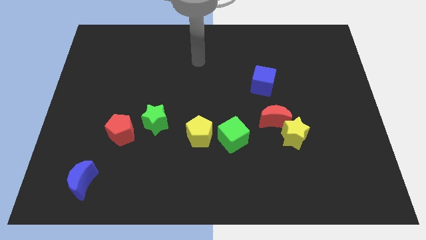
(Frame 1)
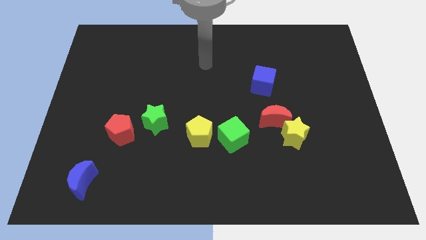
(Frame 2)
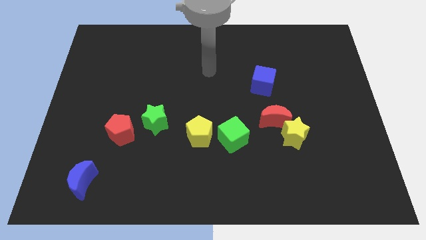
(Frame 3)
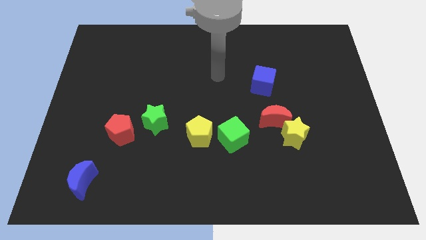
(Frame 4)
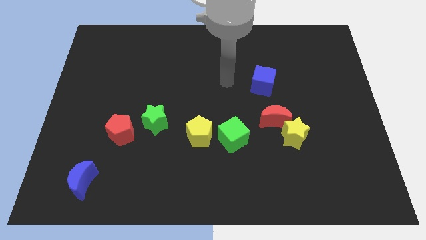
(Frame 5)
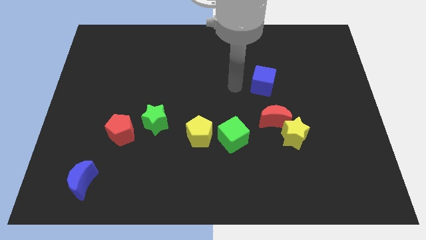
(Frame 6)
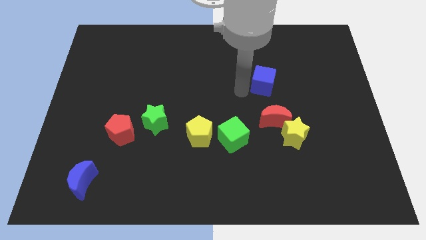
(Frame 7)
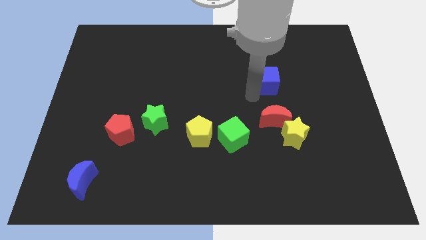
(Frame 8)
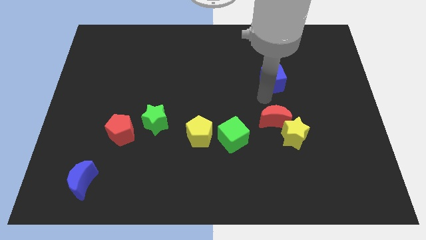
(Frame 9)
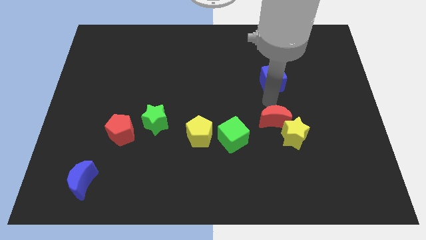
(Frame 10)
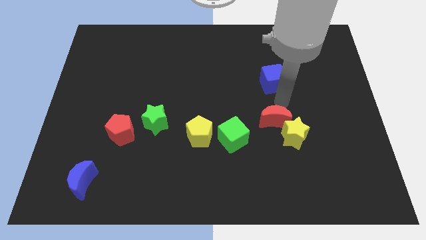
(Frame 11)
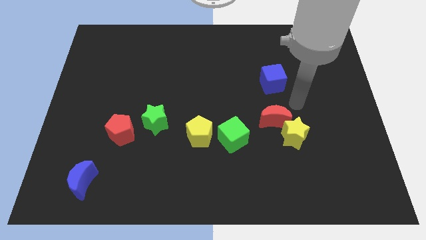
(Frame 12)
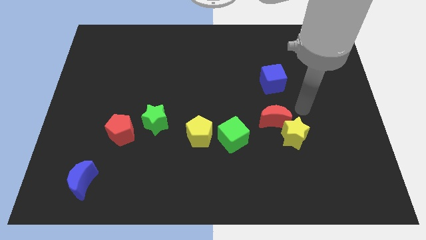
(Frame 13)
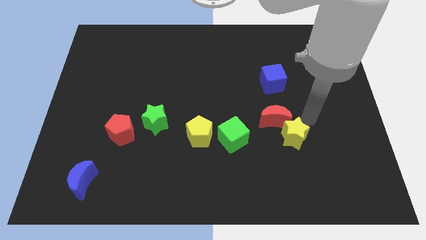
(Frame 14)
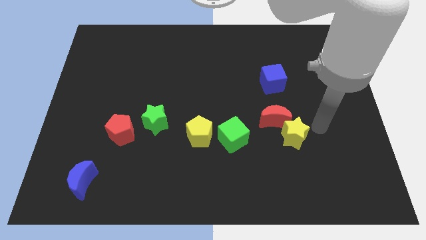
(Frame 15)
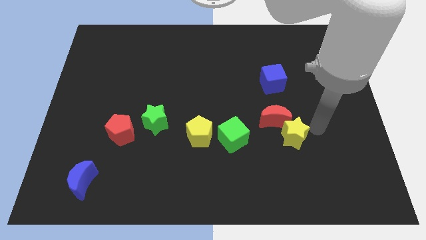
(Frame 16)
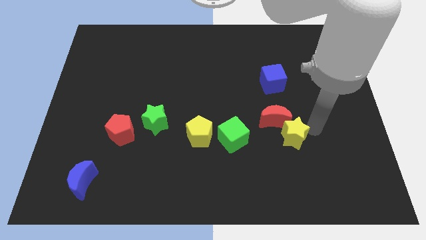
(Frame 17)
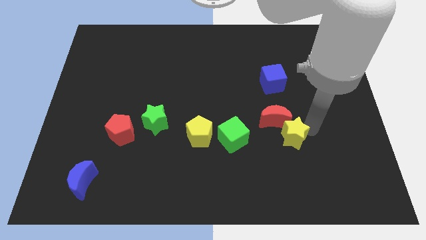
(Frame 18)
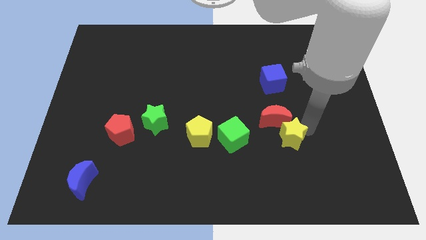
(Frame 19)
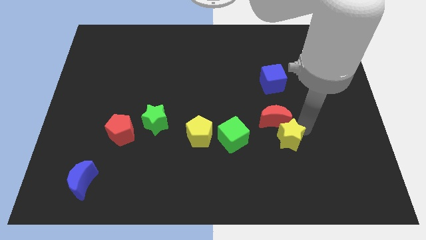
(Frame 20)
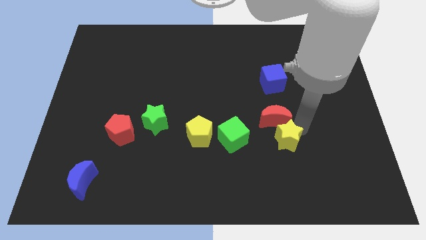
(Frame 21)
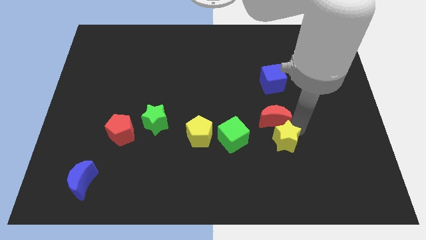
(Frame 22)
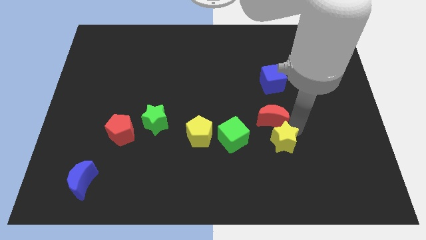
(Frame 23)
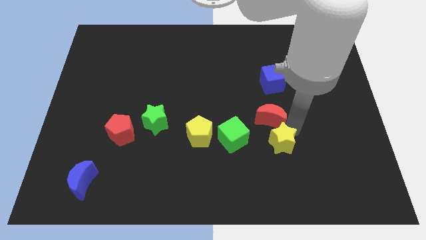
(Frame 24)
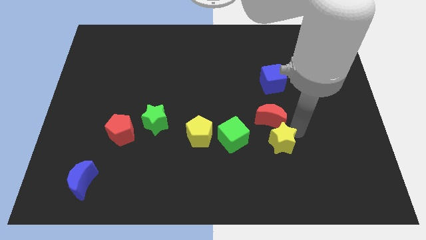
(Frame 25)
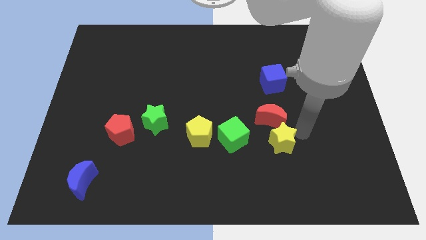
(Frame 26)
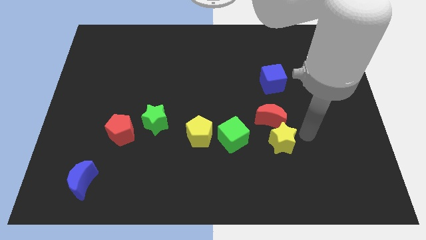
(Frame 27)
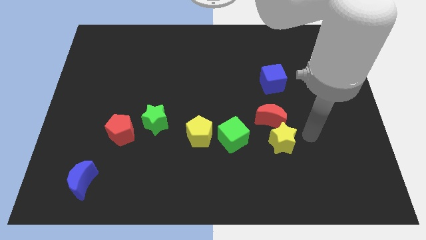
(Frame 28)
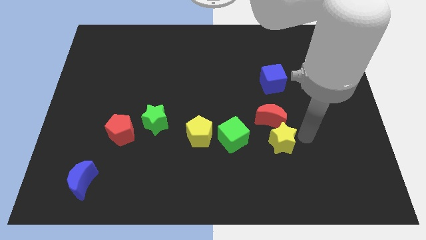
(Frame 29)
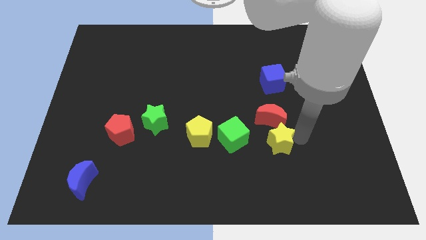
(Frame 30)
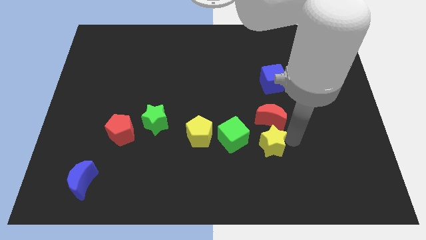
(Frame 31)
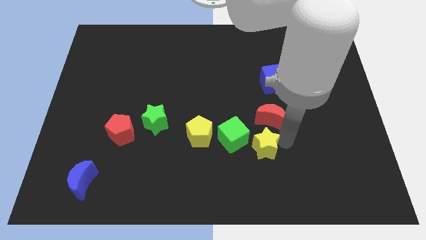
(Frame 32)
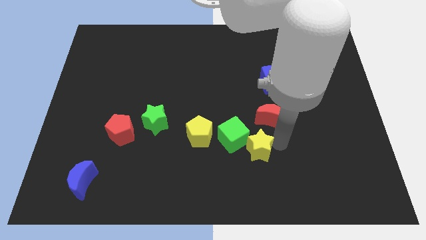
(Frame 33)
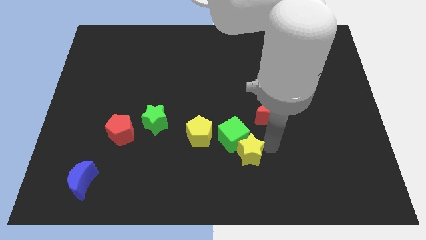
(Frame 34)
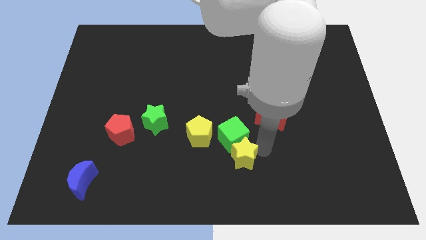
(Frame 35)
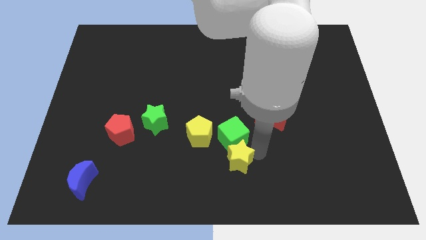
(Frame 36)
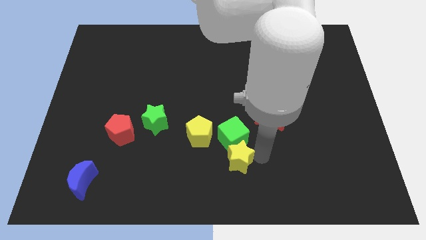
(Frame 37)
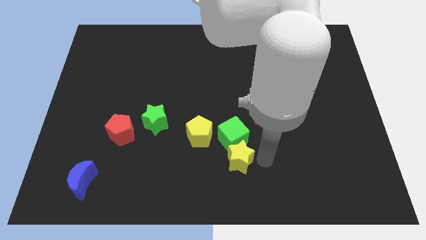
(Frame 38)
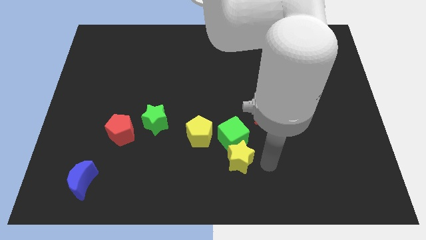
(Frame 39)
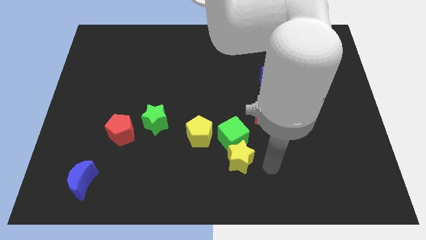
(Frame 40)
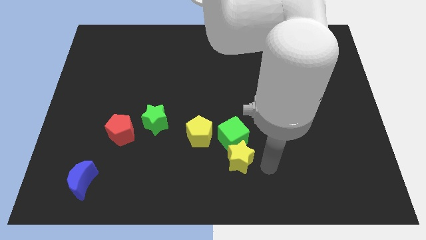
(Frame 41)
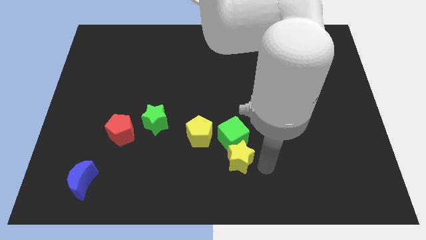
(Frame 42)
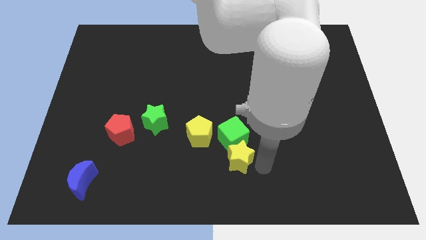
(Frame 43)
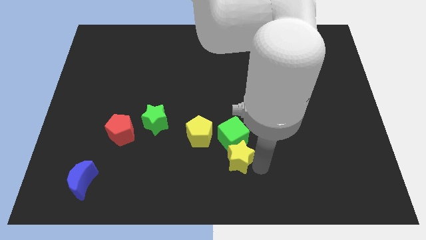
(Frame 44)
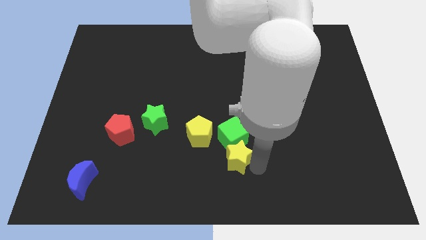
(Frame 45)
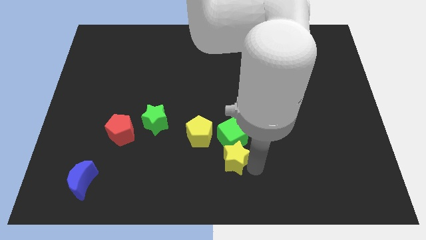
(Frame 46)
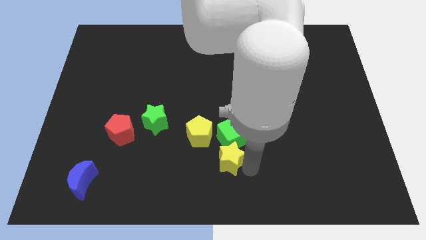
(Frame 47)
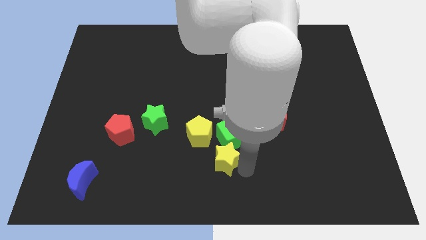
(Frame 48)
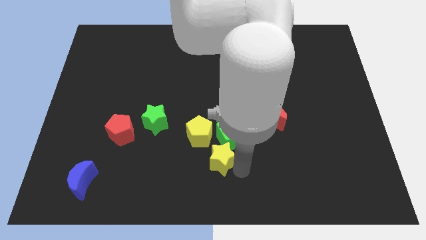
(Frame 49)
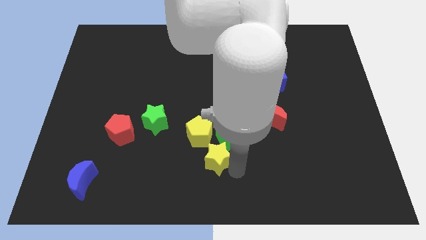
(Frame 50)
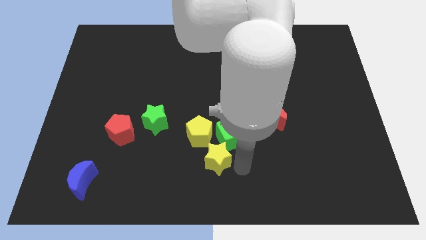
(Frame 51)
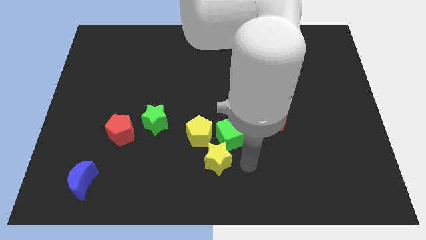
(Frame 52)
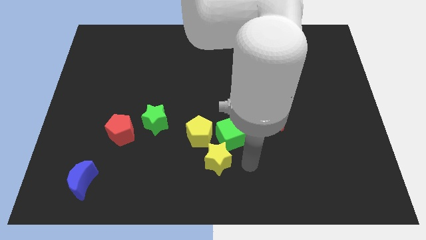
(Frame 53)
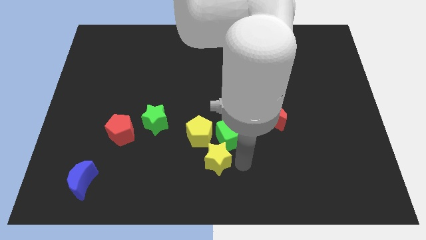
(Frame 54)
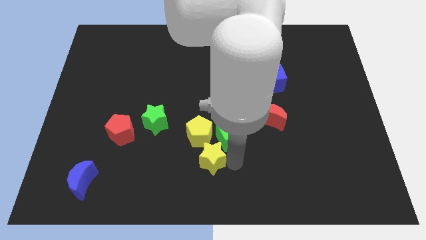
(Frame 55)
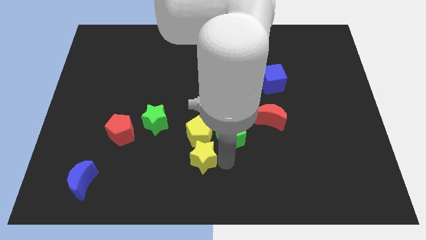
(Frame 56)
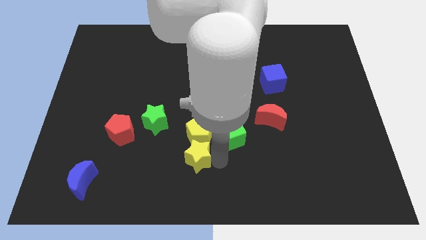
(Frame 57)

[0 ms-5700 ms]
slide the yellow star left

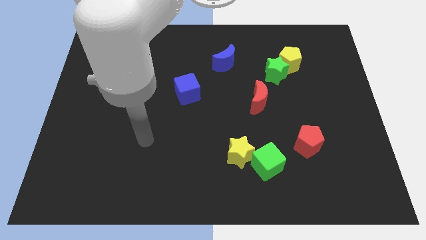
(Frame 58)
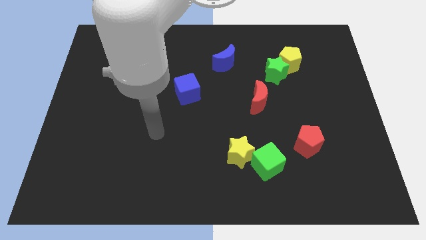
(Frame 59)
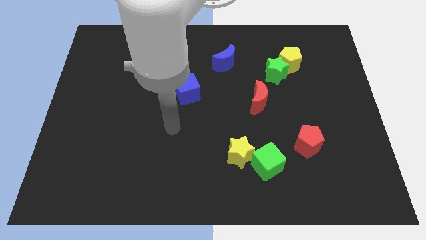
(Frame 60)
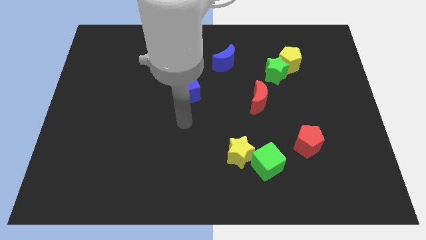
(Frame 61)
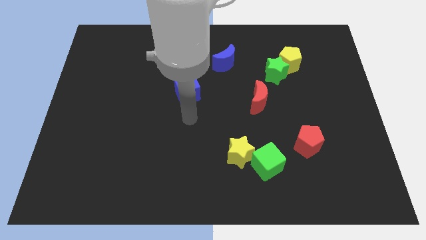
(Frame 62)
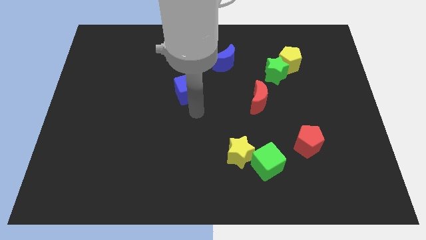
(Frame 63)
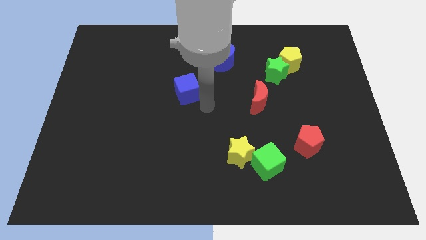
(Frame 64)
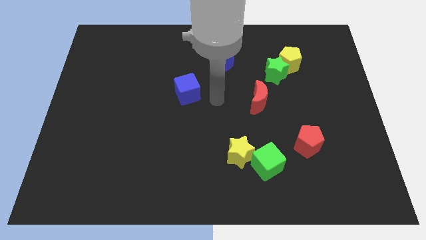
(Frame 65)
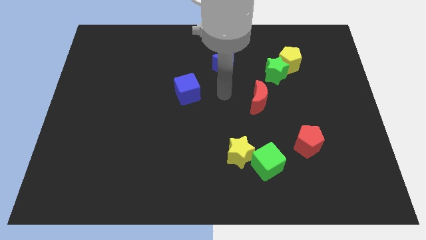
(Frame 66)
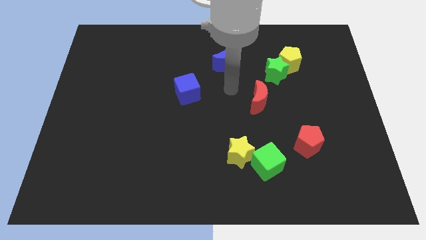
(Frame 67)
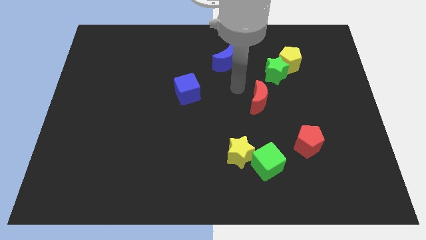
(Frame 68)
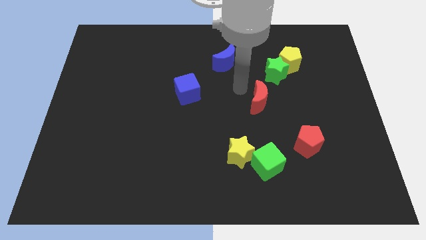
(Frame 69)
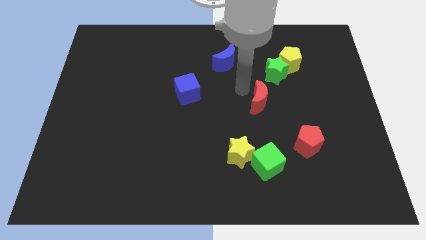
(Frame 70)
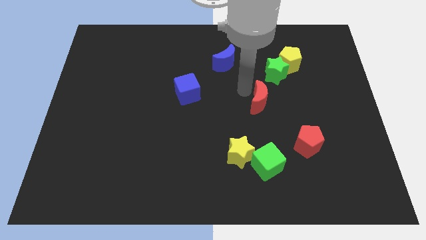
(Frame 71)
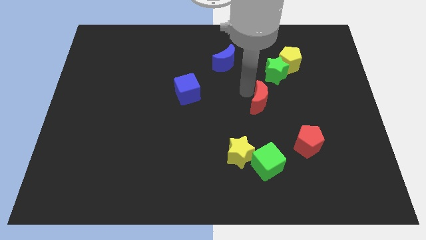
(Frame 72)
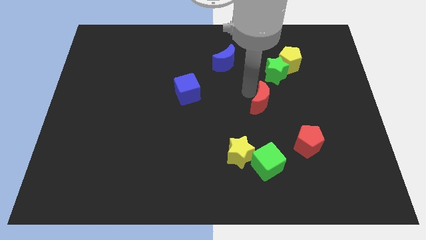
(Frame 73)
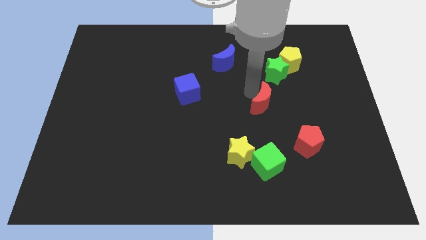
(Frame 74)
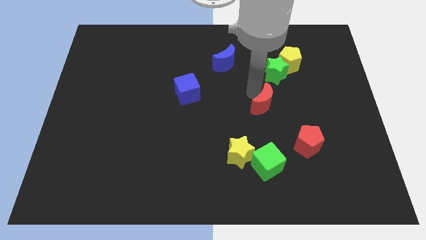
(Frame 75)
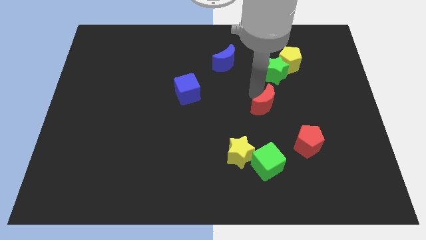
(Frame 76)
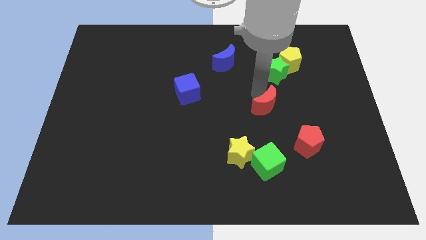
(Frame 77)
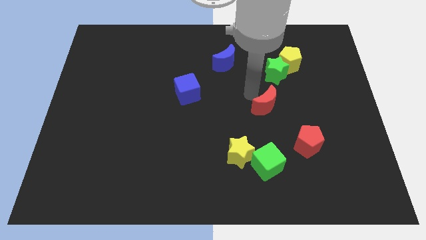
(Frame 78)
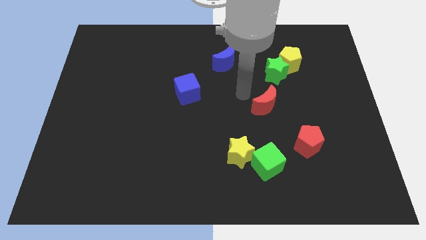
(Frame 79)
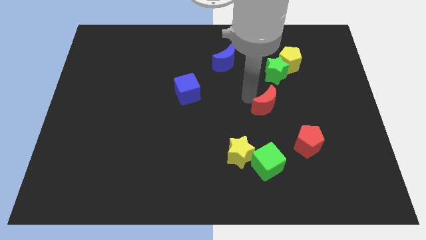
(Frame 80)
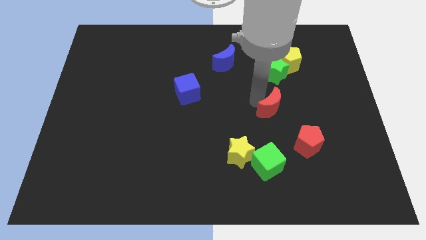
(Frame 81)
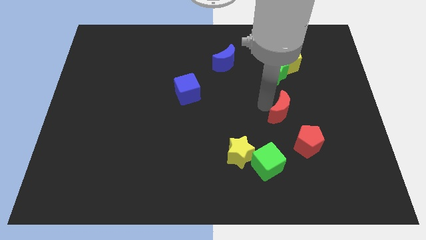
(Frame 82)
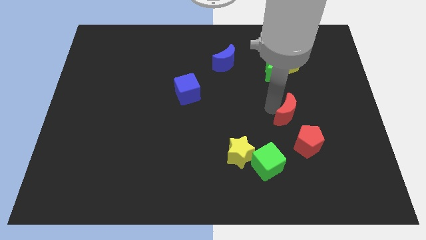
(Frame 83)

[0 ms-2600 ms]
push the red moon a bit diagonally down and to the right
